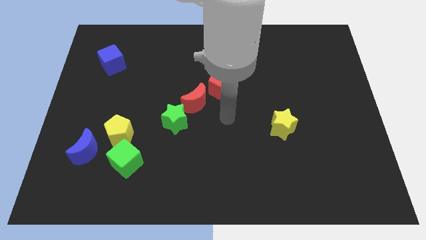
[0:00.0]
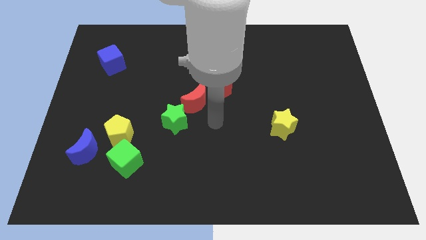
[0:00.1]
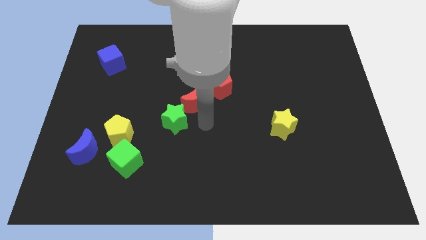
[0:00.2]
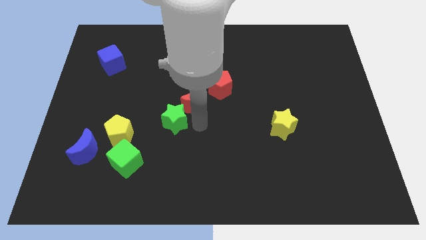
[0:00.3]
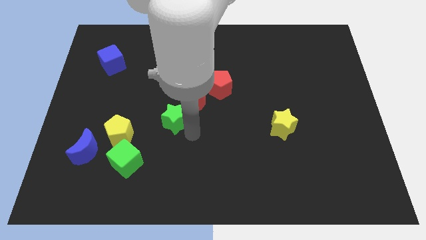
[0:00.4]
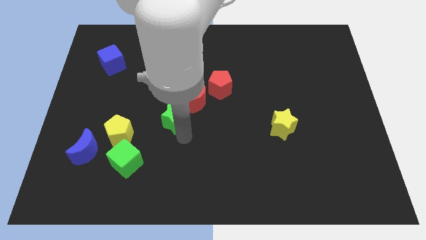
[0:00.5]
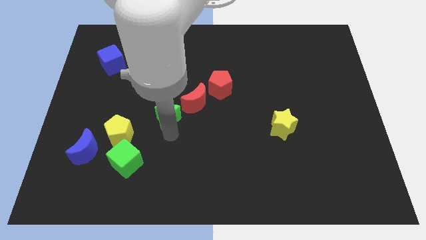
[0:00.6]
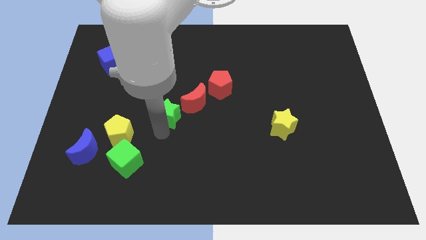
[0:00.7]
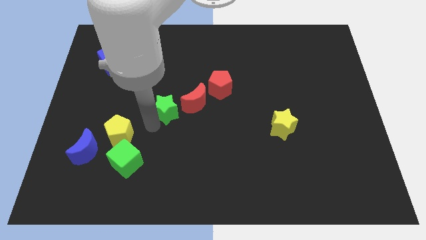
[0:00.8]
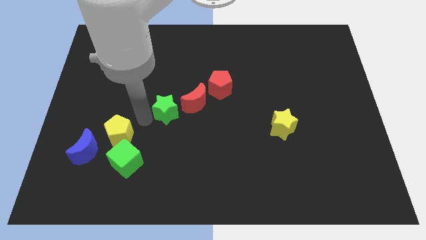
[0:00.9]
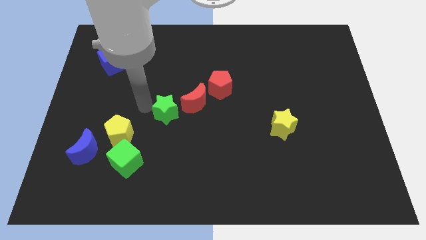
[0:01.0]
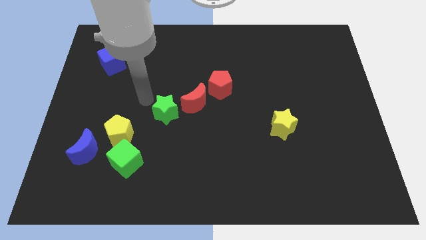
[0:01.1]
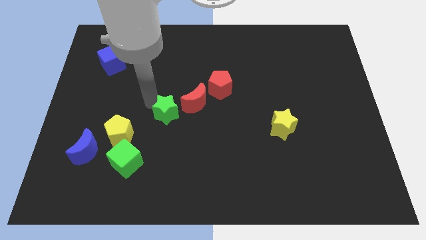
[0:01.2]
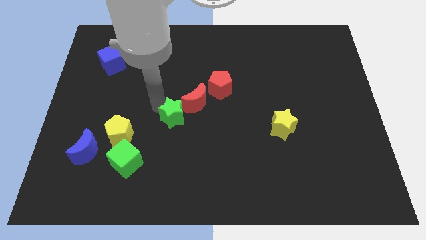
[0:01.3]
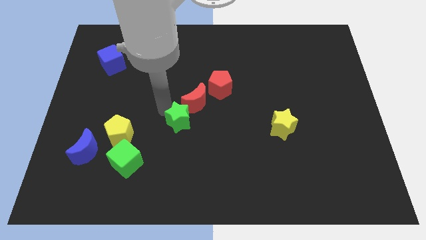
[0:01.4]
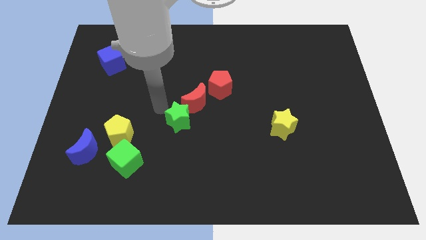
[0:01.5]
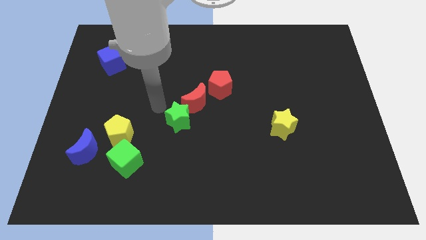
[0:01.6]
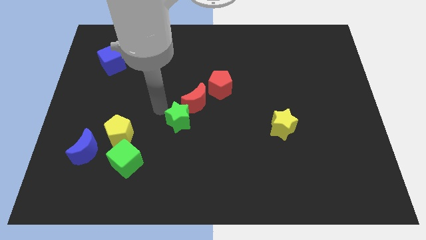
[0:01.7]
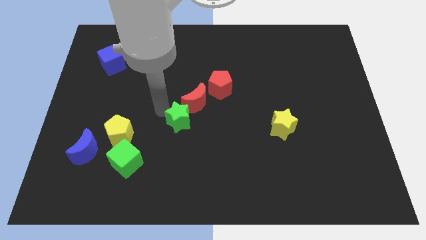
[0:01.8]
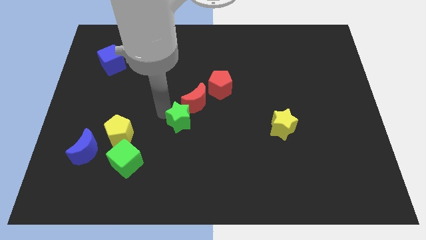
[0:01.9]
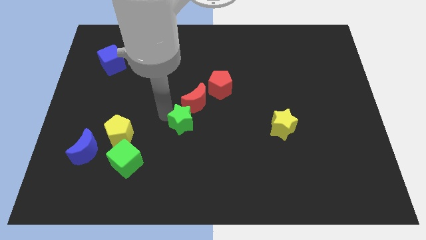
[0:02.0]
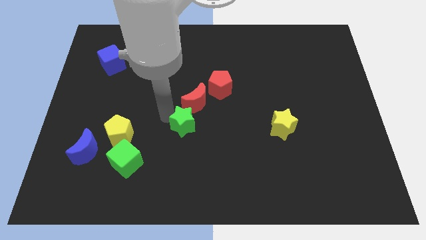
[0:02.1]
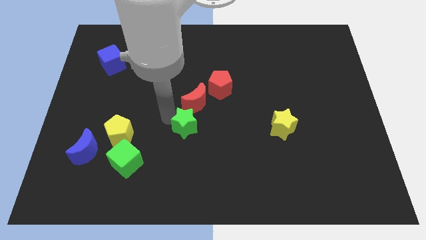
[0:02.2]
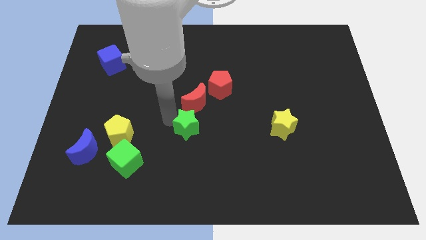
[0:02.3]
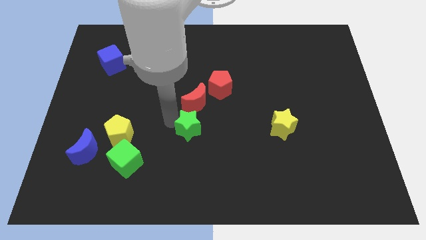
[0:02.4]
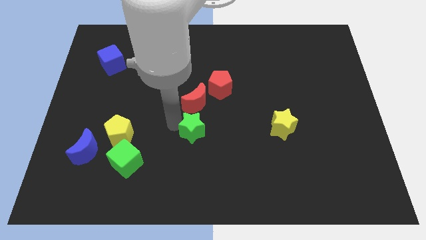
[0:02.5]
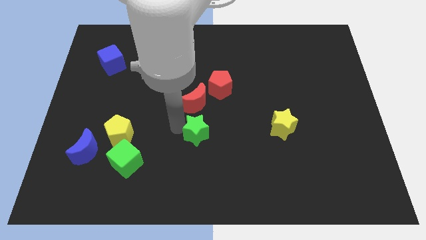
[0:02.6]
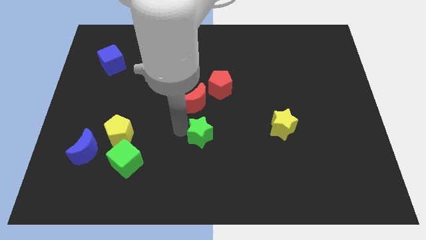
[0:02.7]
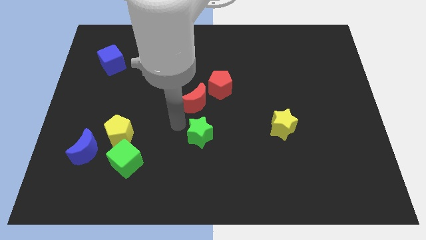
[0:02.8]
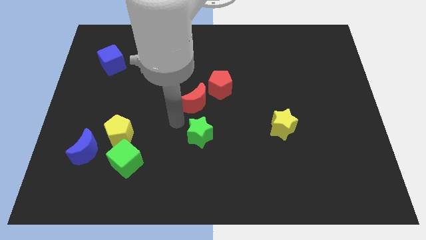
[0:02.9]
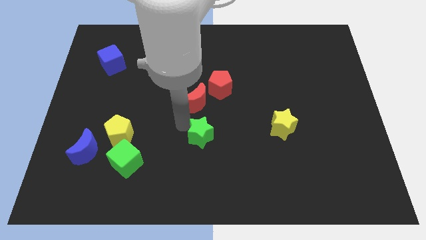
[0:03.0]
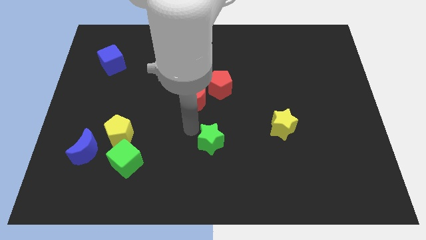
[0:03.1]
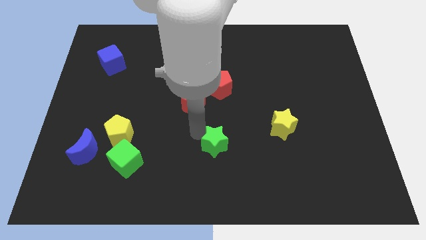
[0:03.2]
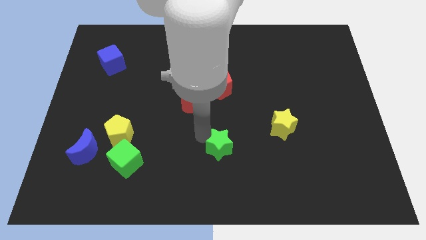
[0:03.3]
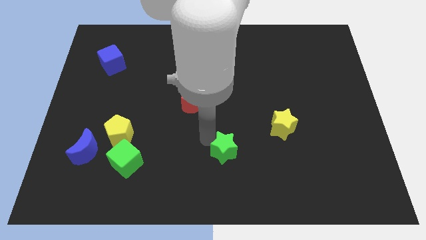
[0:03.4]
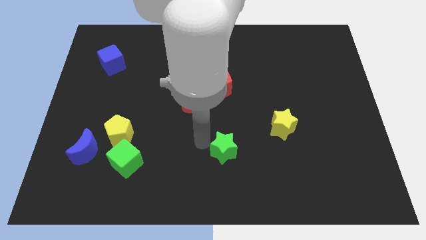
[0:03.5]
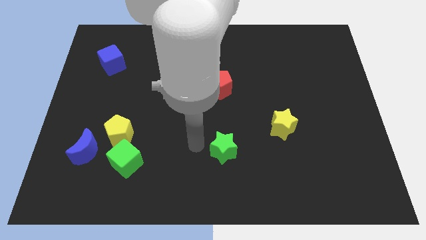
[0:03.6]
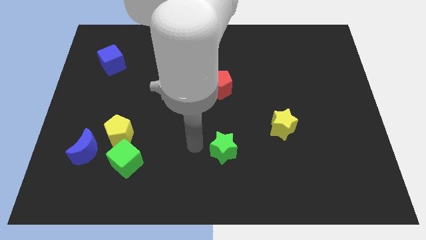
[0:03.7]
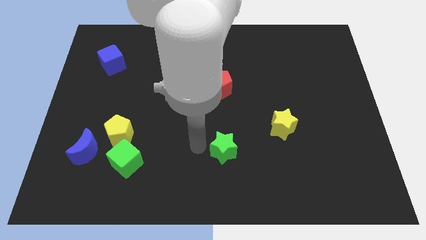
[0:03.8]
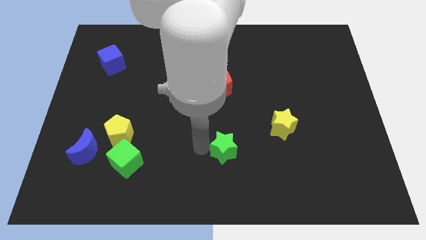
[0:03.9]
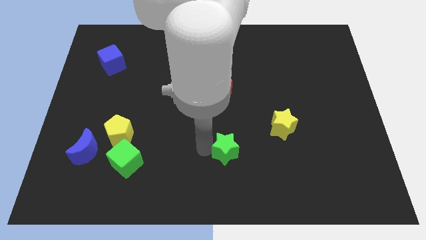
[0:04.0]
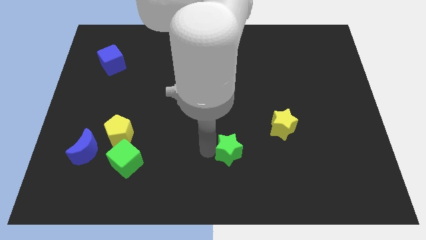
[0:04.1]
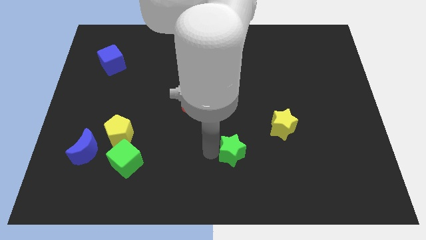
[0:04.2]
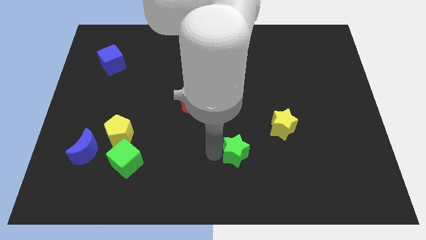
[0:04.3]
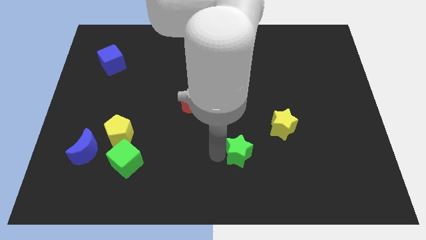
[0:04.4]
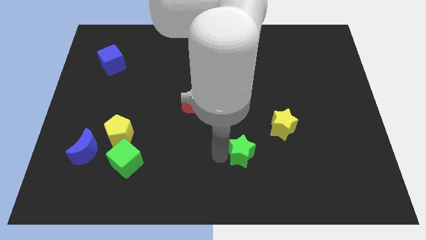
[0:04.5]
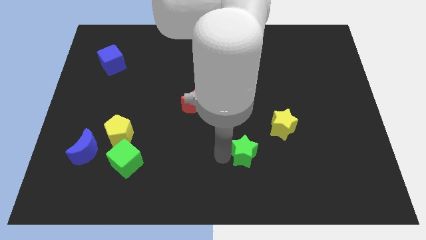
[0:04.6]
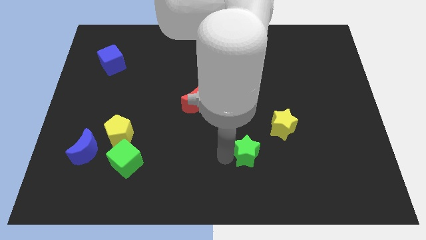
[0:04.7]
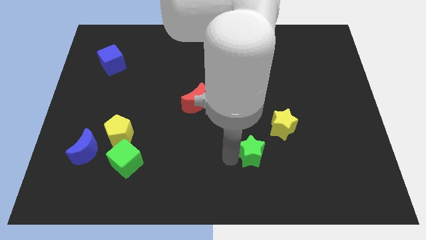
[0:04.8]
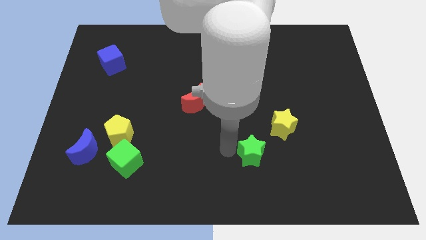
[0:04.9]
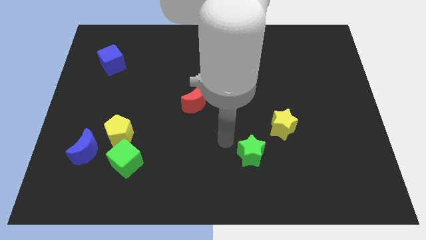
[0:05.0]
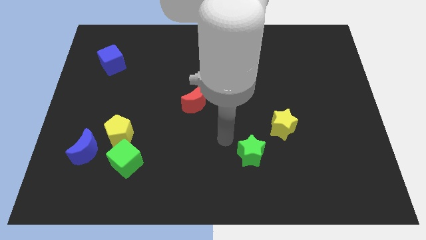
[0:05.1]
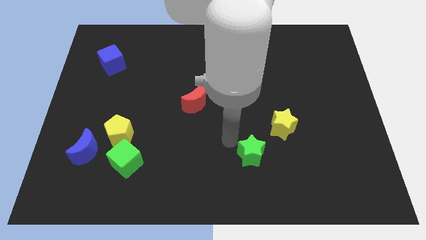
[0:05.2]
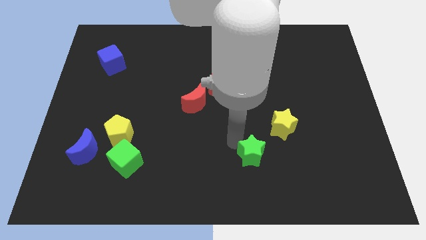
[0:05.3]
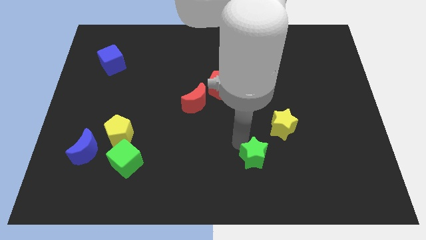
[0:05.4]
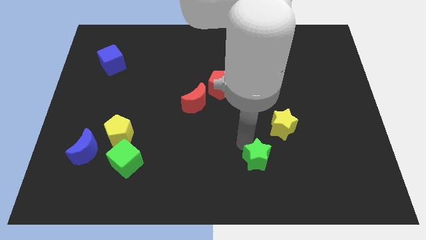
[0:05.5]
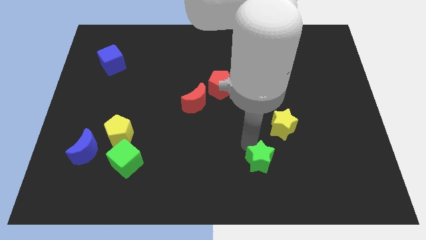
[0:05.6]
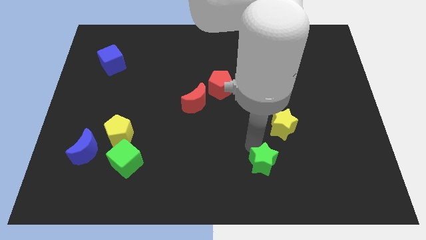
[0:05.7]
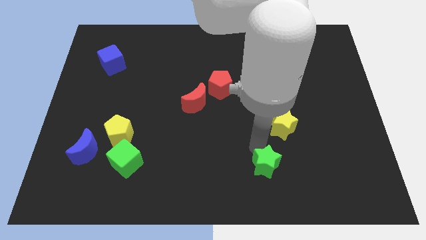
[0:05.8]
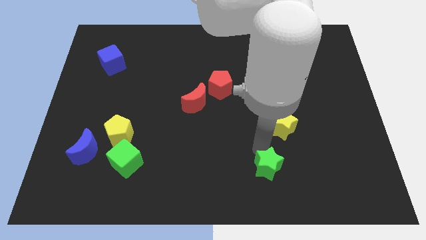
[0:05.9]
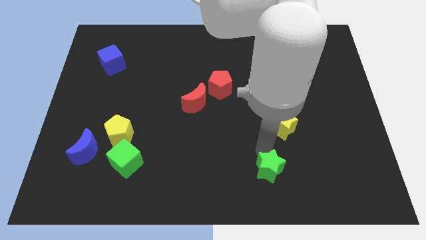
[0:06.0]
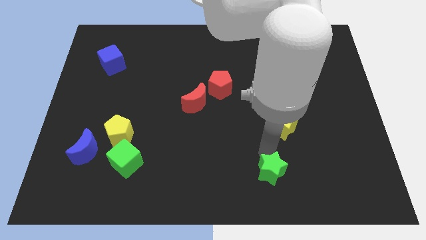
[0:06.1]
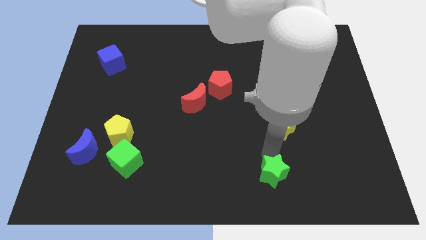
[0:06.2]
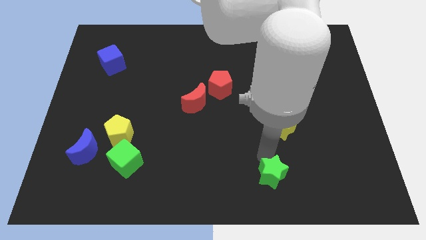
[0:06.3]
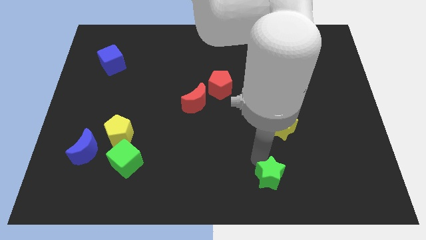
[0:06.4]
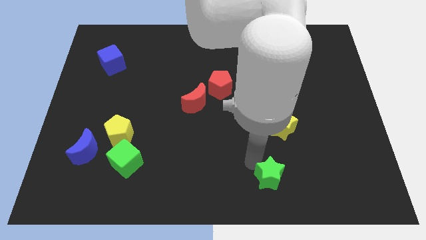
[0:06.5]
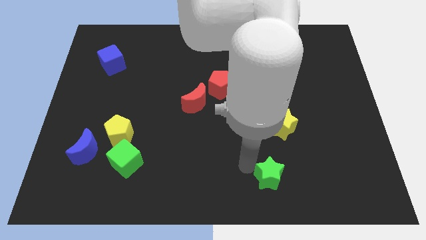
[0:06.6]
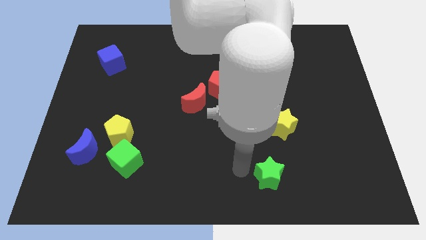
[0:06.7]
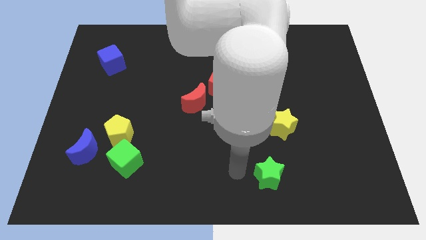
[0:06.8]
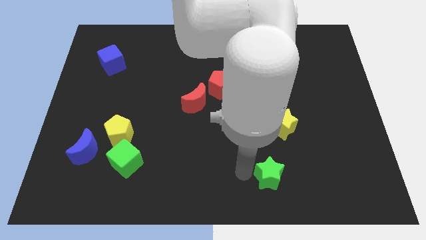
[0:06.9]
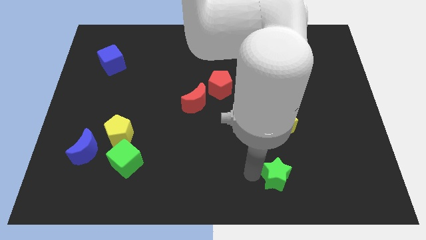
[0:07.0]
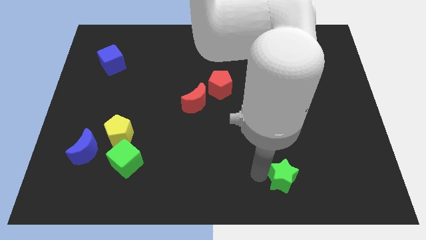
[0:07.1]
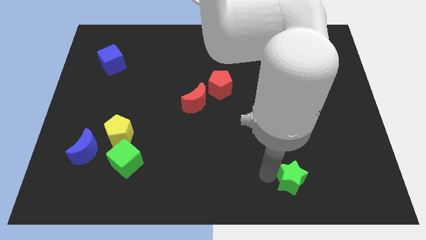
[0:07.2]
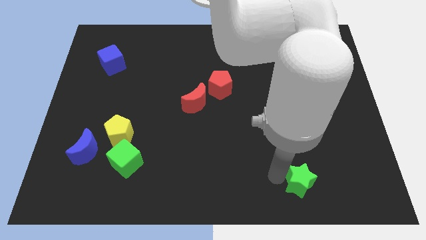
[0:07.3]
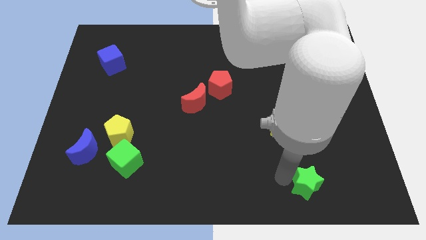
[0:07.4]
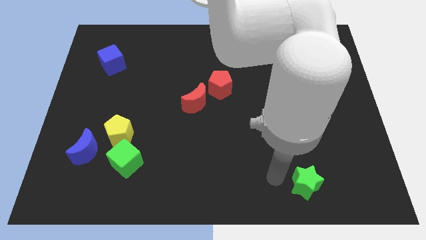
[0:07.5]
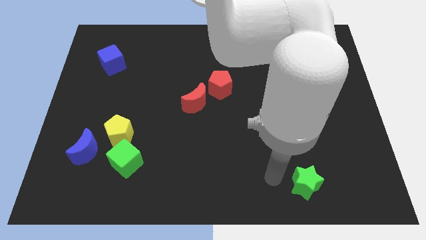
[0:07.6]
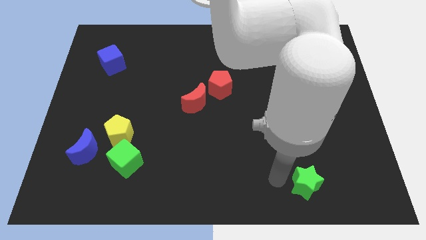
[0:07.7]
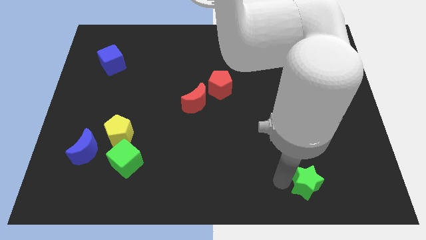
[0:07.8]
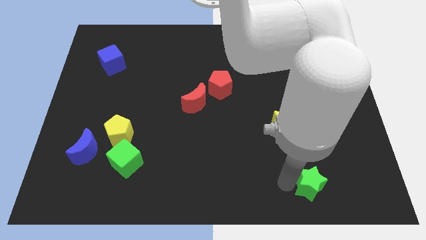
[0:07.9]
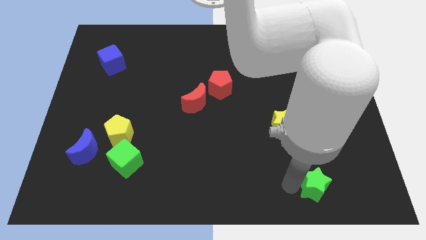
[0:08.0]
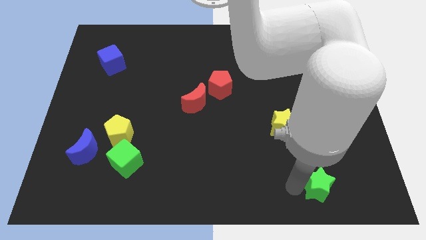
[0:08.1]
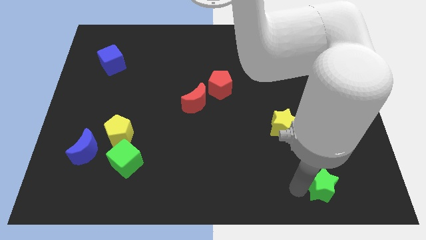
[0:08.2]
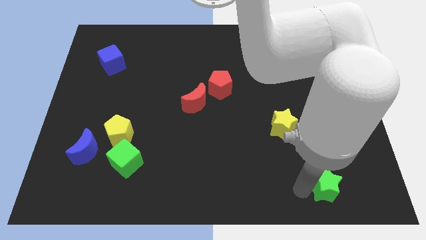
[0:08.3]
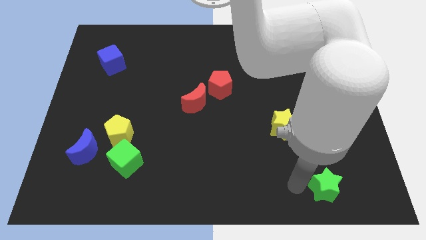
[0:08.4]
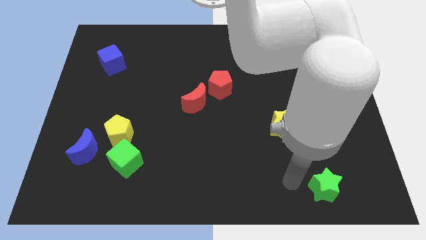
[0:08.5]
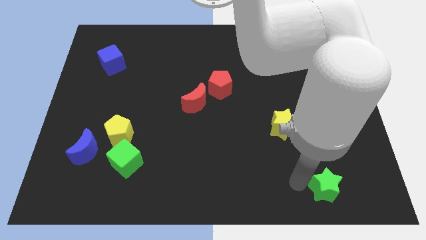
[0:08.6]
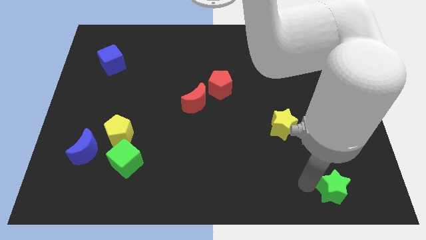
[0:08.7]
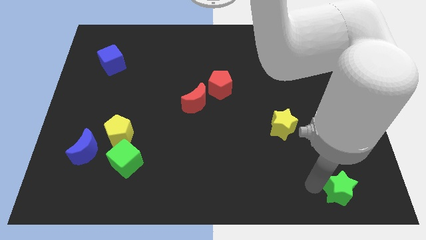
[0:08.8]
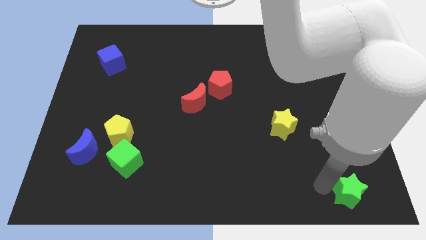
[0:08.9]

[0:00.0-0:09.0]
move the green star to the bottom right corner
